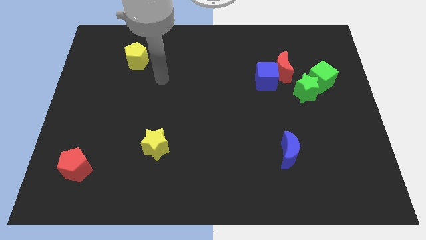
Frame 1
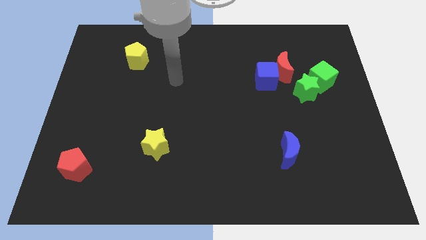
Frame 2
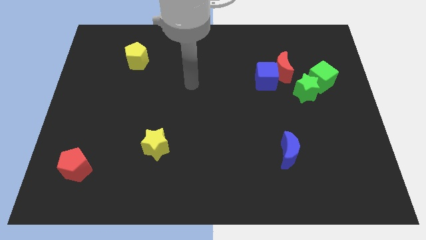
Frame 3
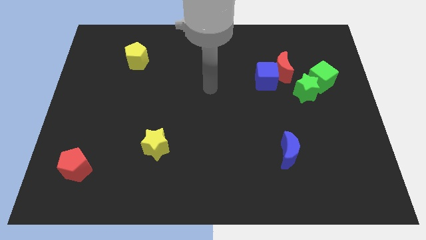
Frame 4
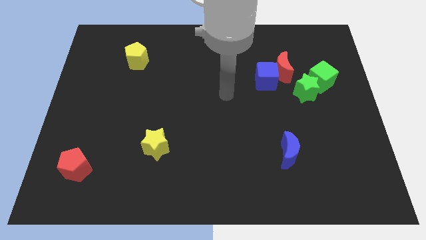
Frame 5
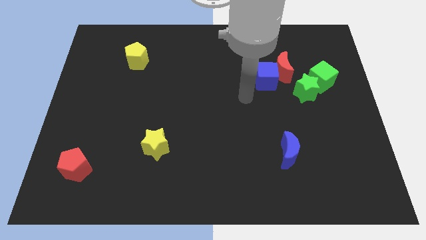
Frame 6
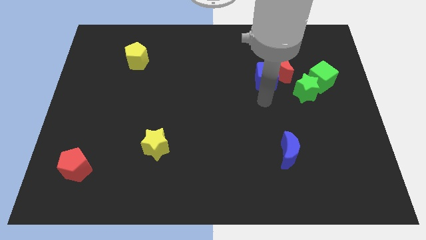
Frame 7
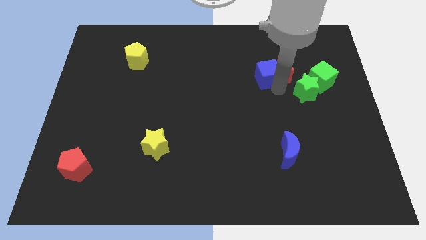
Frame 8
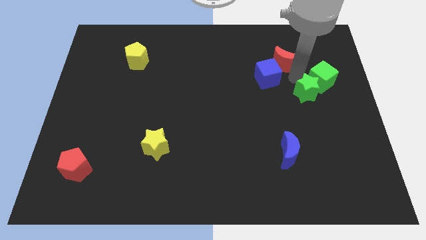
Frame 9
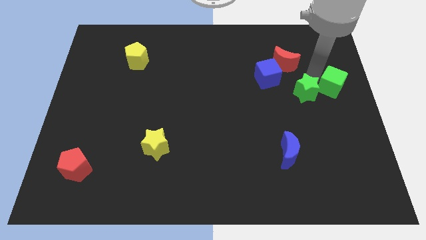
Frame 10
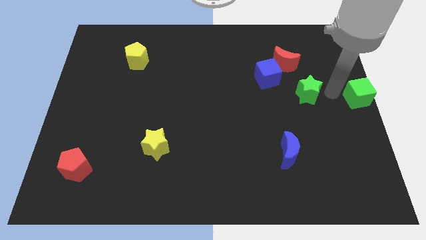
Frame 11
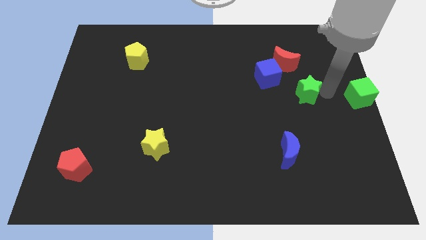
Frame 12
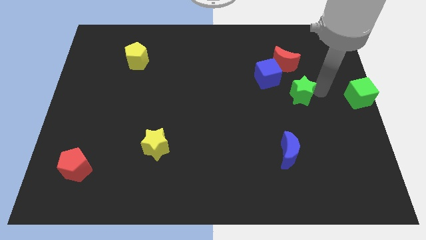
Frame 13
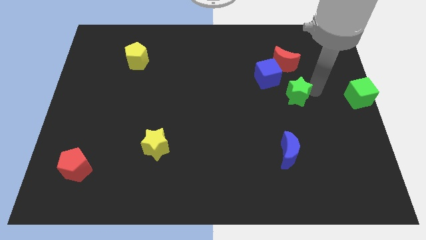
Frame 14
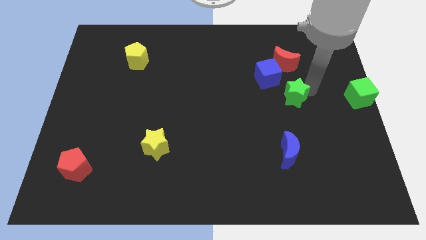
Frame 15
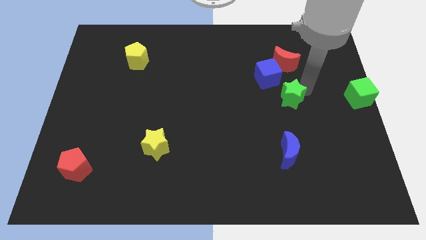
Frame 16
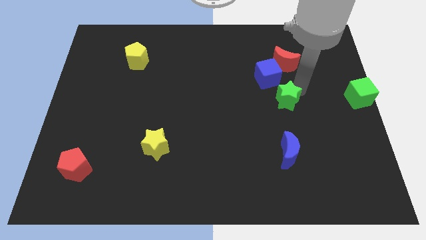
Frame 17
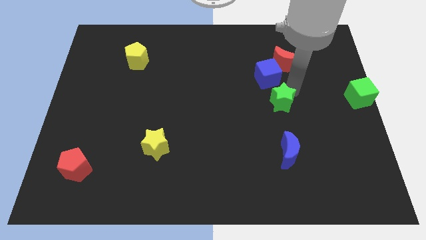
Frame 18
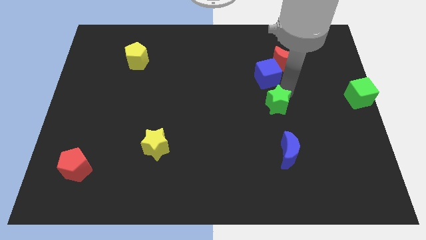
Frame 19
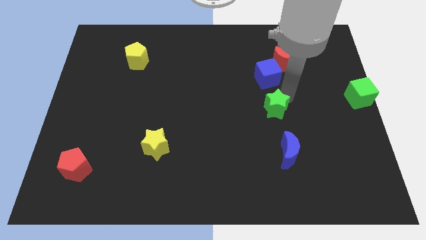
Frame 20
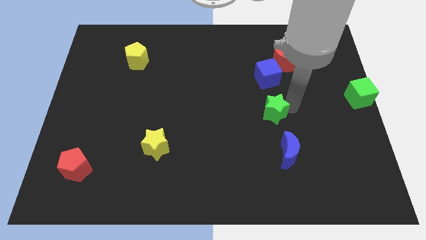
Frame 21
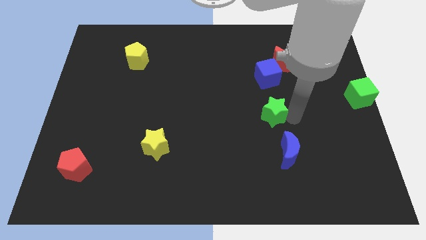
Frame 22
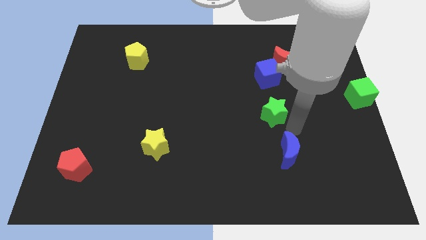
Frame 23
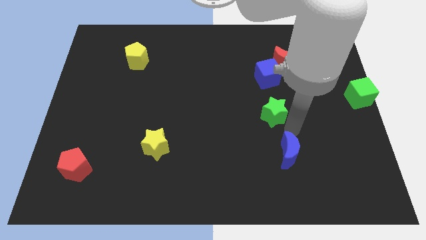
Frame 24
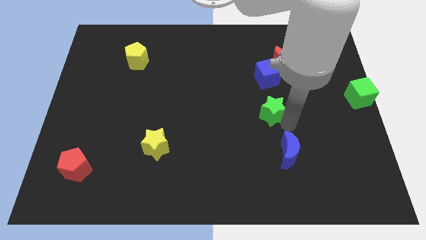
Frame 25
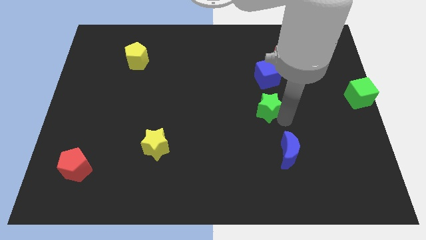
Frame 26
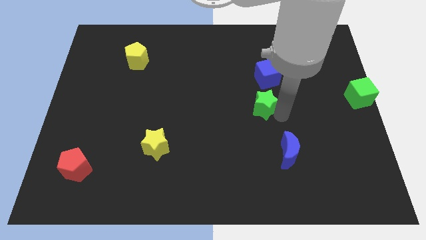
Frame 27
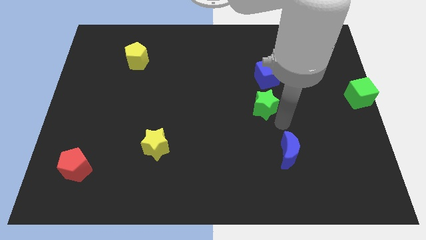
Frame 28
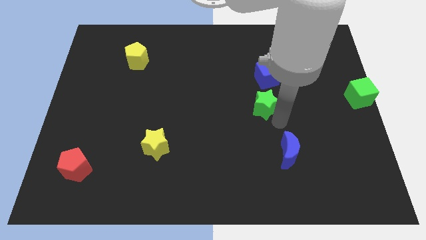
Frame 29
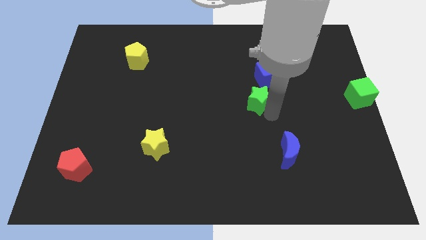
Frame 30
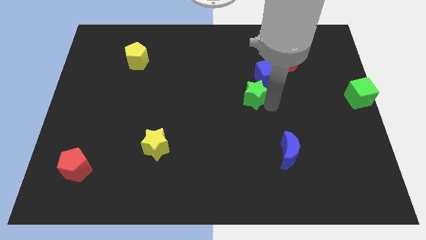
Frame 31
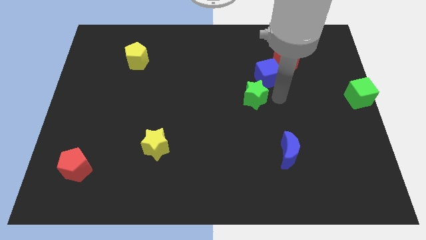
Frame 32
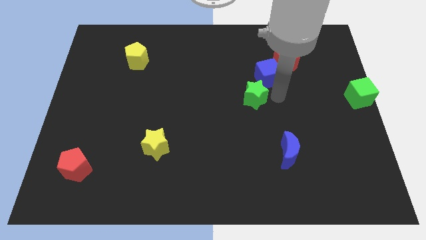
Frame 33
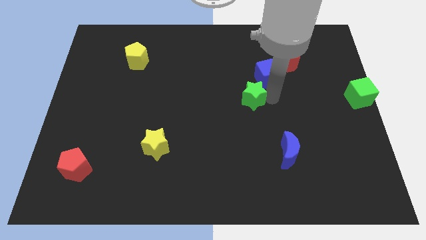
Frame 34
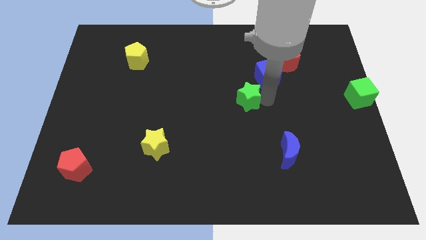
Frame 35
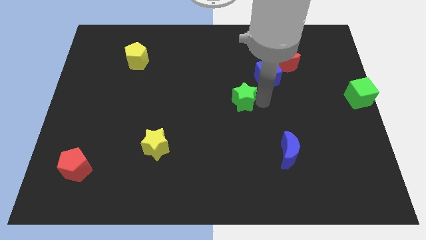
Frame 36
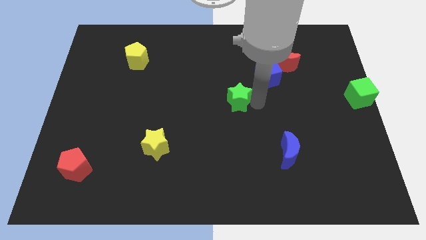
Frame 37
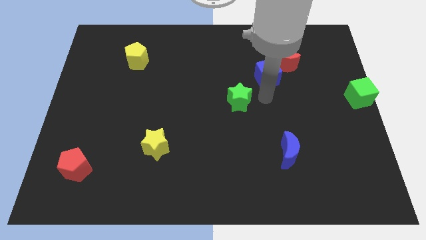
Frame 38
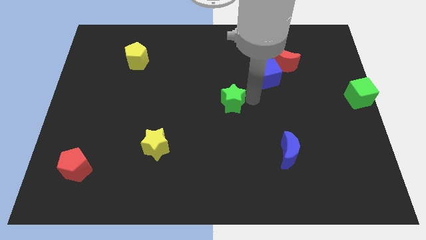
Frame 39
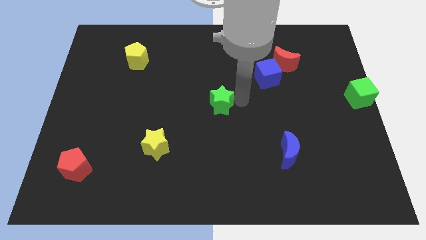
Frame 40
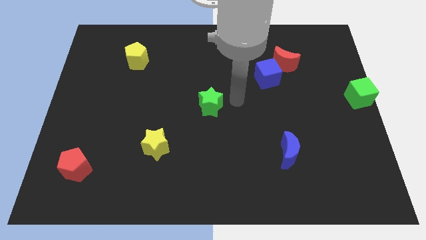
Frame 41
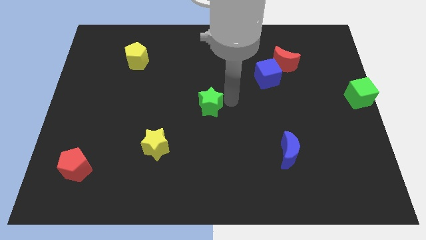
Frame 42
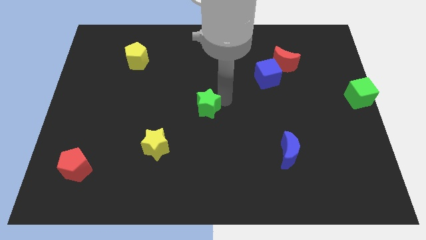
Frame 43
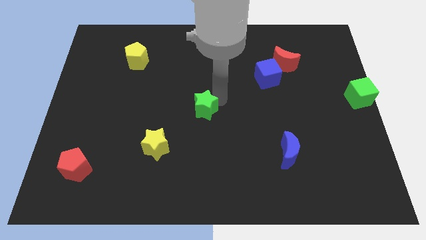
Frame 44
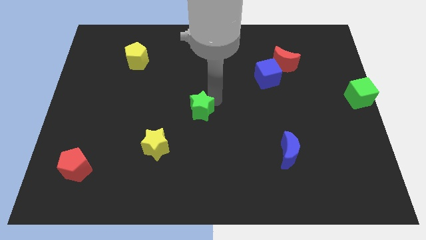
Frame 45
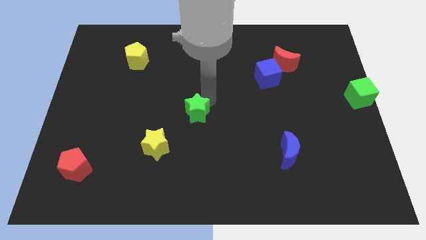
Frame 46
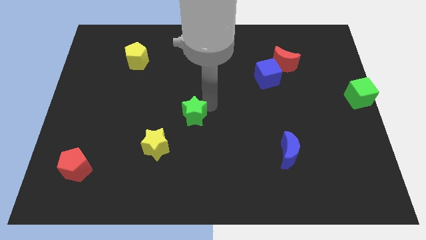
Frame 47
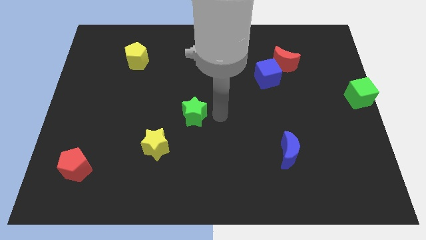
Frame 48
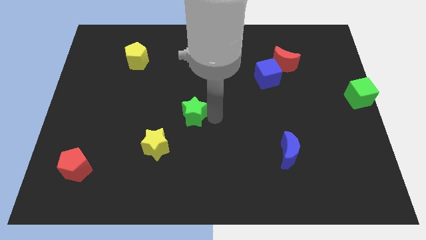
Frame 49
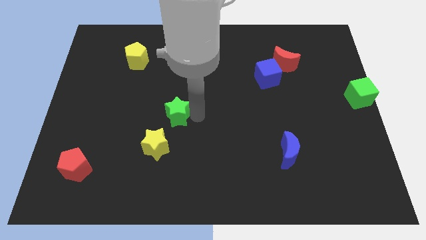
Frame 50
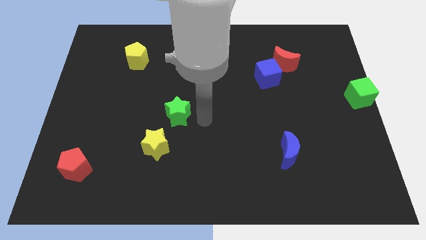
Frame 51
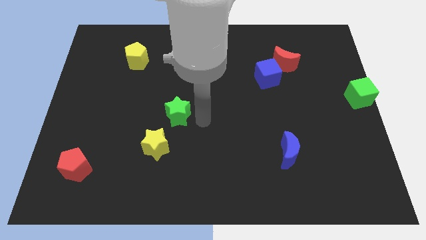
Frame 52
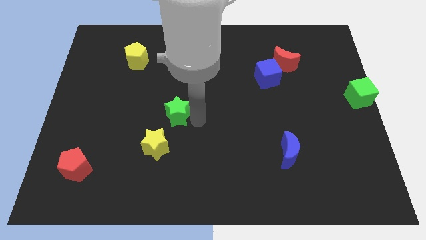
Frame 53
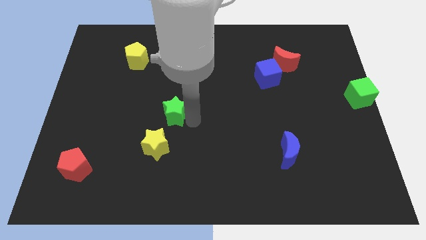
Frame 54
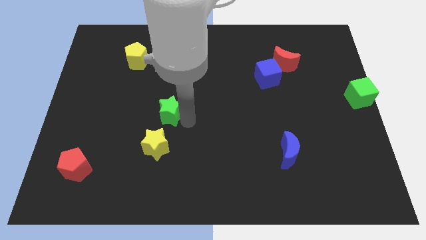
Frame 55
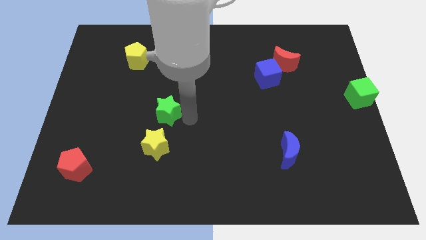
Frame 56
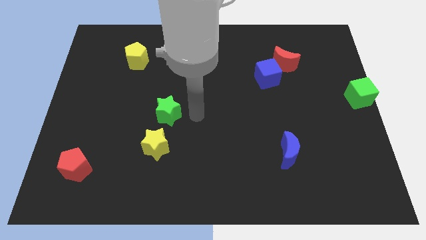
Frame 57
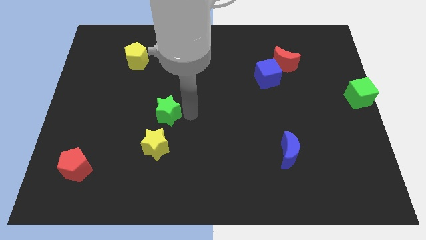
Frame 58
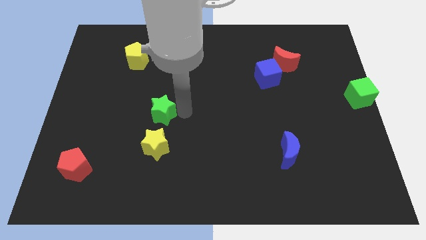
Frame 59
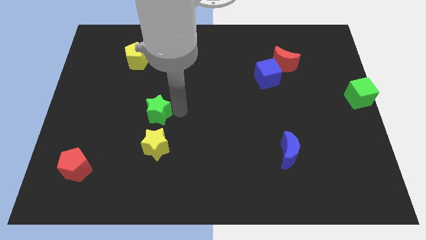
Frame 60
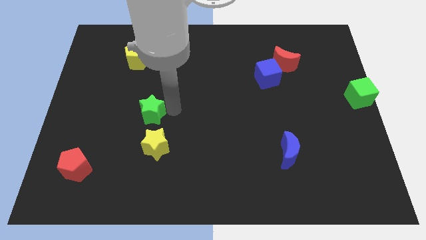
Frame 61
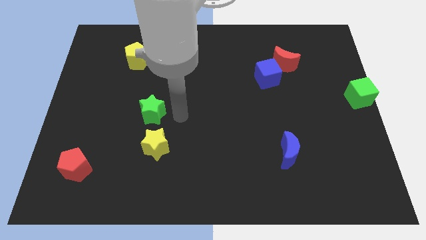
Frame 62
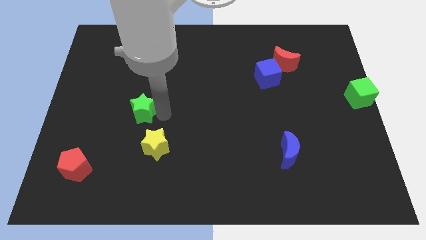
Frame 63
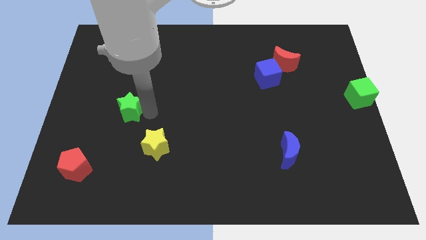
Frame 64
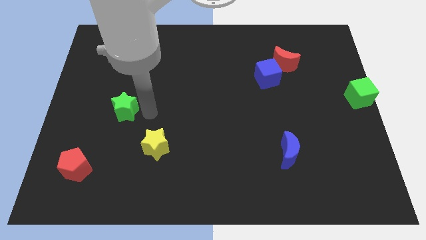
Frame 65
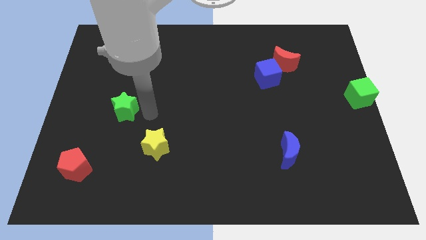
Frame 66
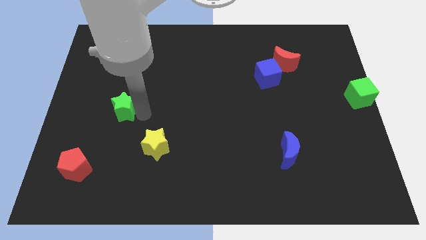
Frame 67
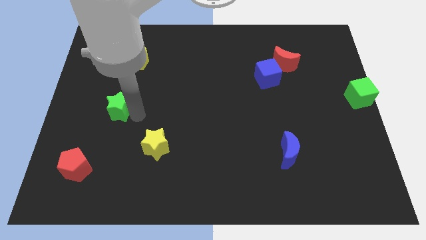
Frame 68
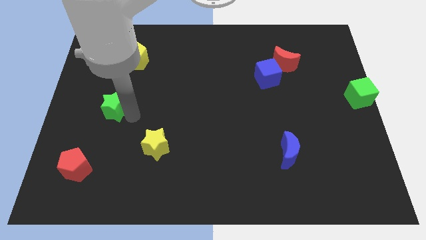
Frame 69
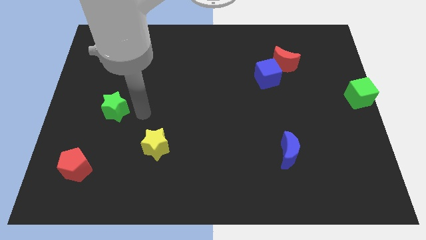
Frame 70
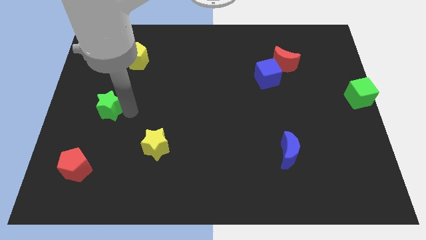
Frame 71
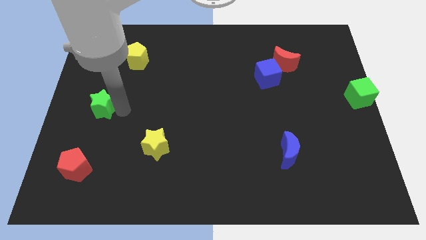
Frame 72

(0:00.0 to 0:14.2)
slide the green star to the left side
